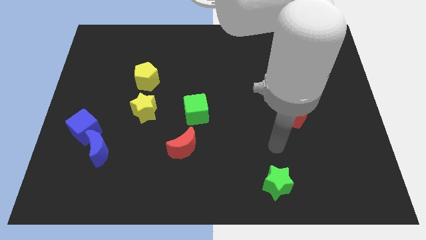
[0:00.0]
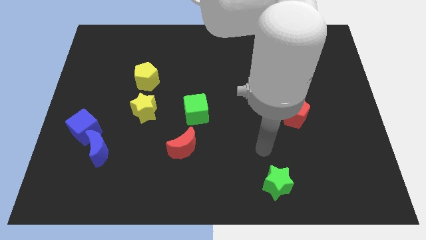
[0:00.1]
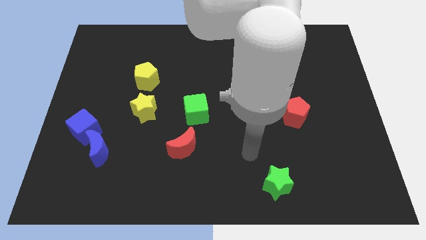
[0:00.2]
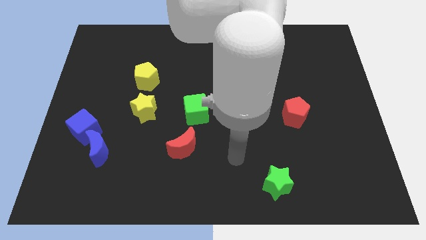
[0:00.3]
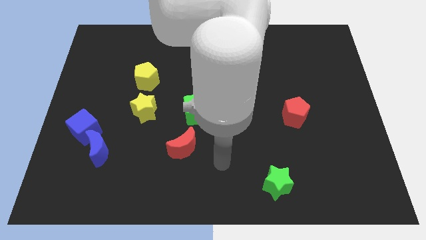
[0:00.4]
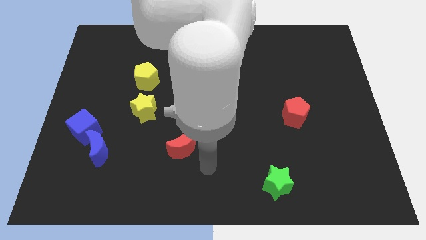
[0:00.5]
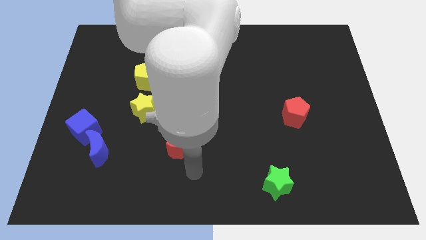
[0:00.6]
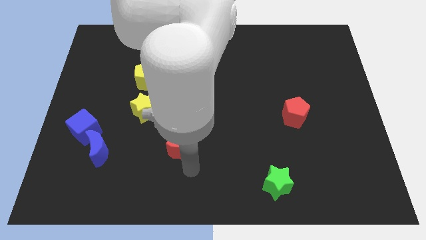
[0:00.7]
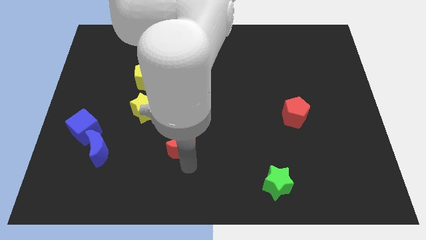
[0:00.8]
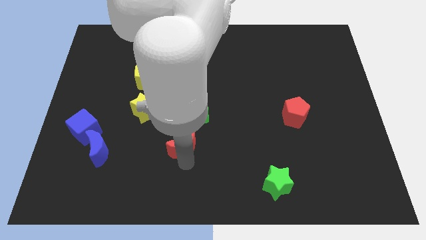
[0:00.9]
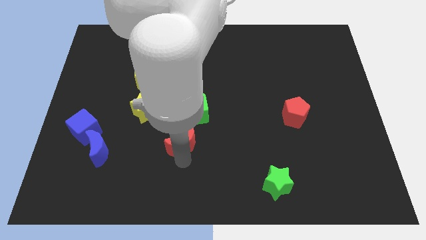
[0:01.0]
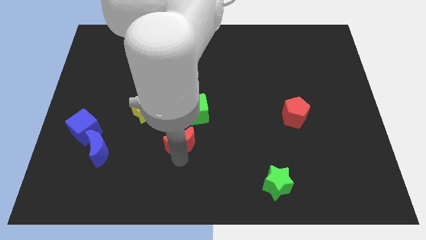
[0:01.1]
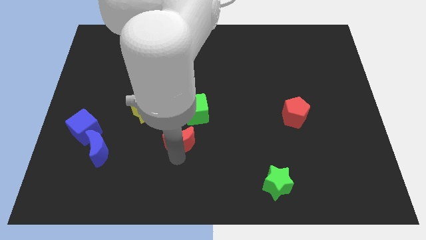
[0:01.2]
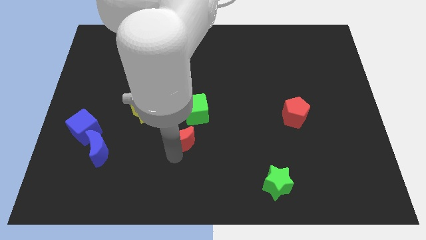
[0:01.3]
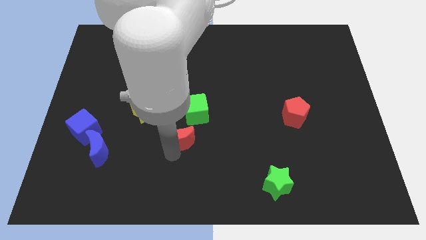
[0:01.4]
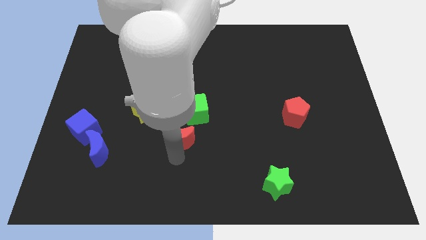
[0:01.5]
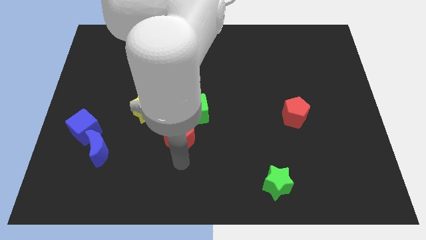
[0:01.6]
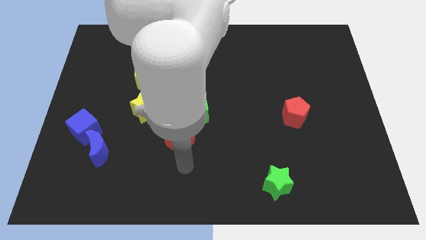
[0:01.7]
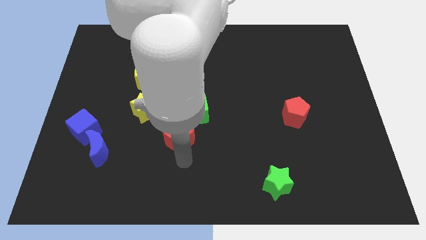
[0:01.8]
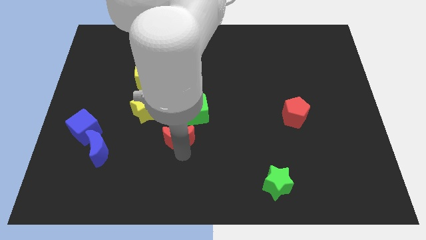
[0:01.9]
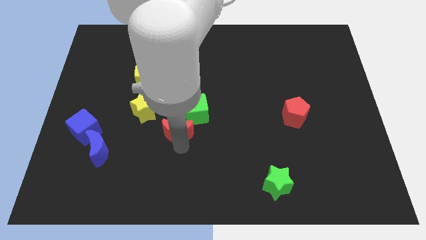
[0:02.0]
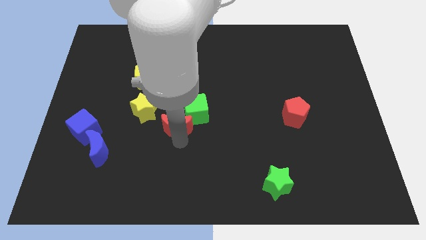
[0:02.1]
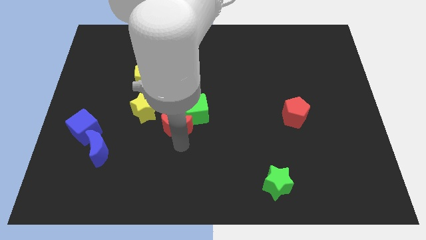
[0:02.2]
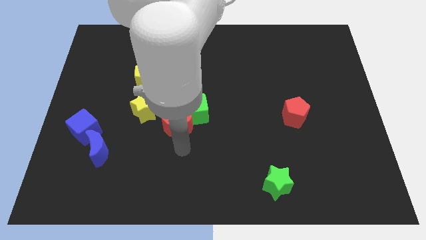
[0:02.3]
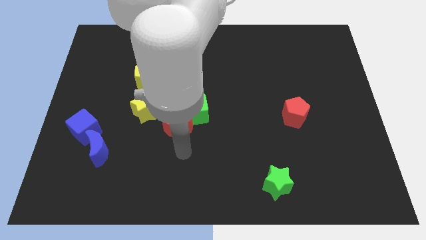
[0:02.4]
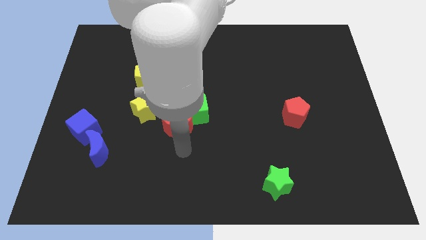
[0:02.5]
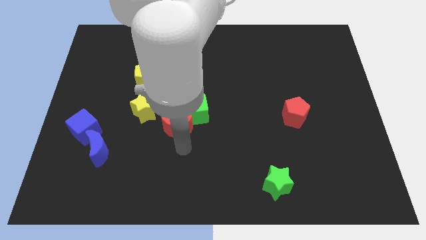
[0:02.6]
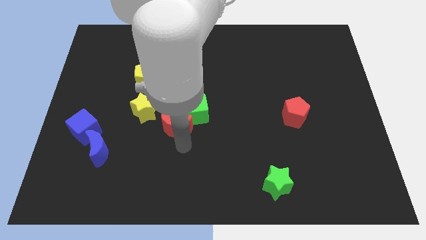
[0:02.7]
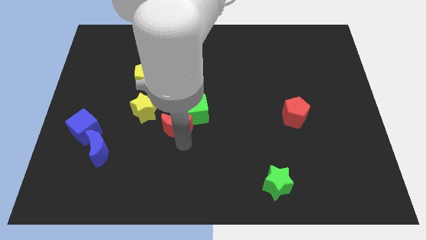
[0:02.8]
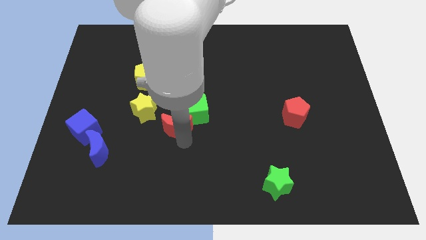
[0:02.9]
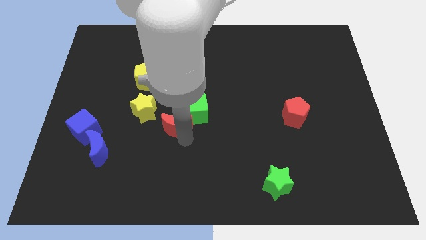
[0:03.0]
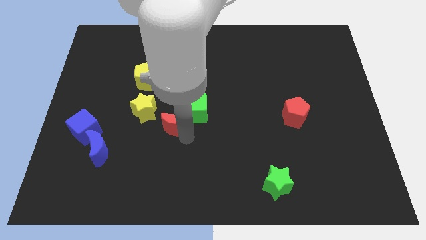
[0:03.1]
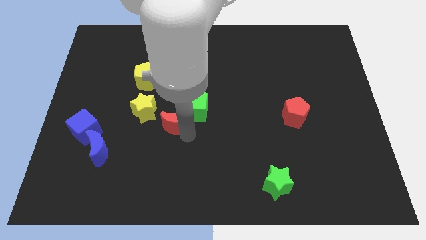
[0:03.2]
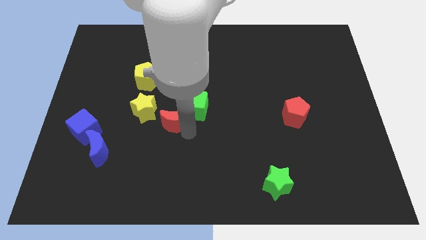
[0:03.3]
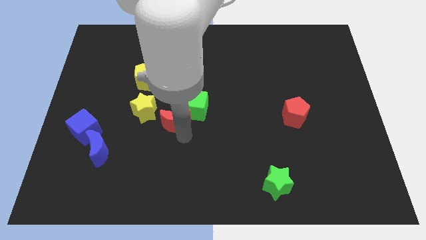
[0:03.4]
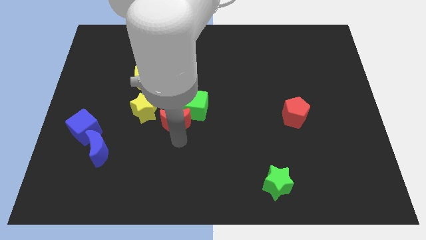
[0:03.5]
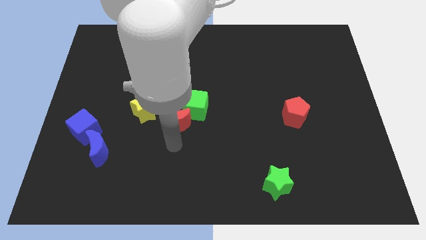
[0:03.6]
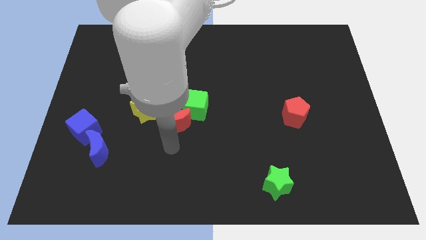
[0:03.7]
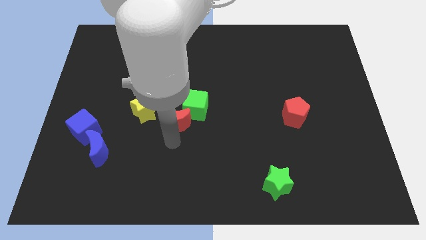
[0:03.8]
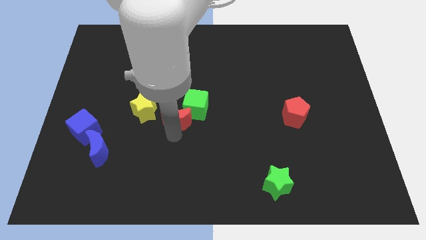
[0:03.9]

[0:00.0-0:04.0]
push the red moon a little bit up

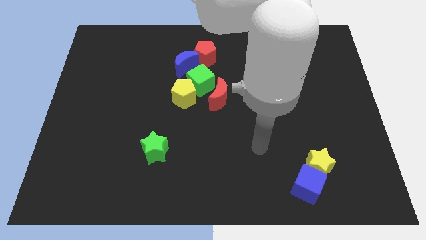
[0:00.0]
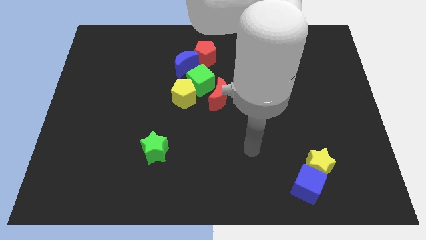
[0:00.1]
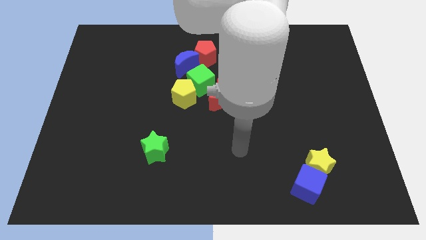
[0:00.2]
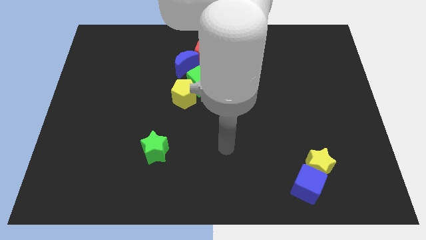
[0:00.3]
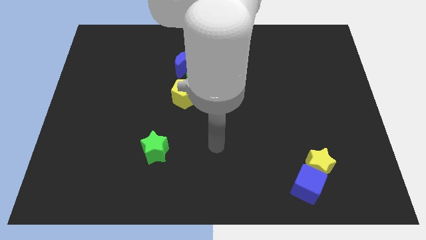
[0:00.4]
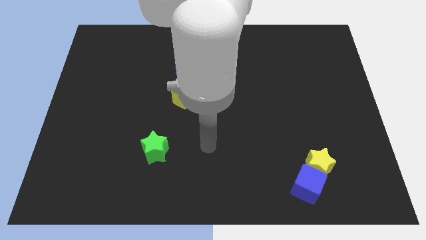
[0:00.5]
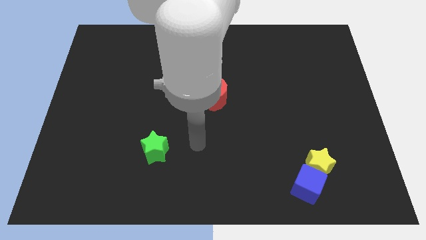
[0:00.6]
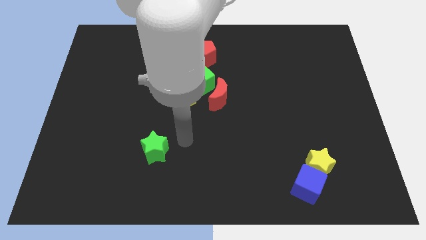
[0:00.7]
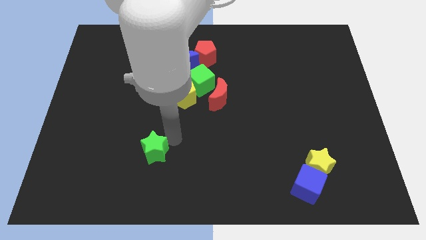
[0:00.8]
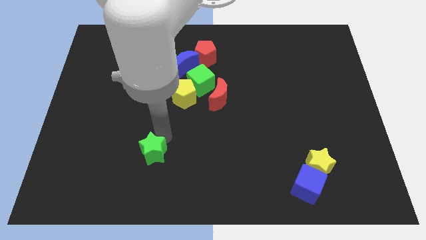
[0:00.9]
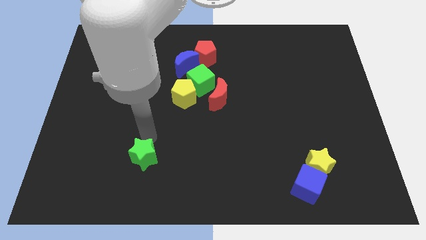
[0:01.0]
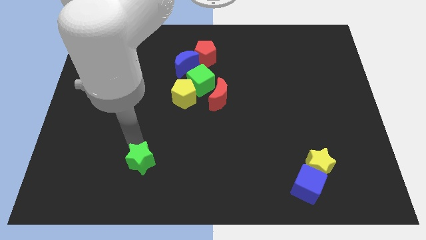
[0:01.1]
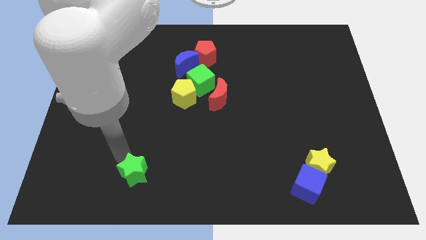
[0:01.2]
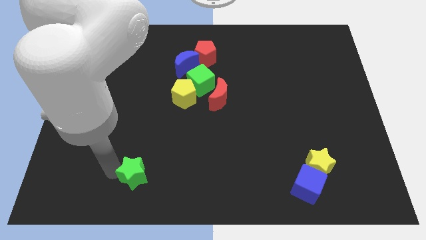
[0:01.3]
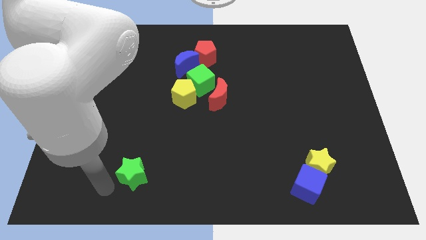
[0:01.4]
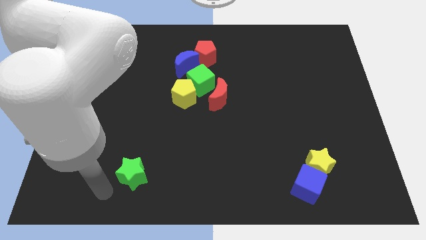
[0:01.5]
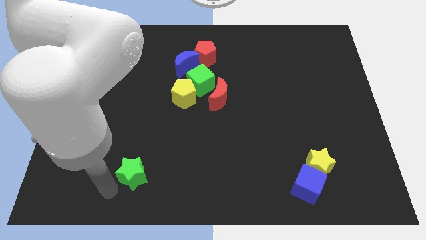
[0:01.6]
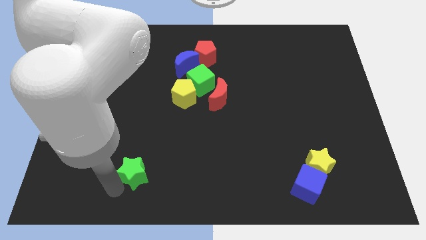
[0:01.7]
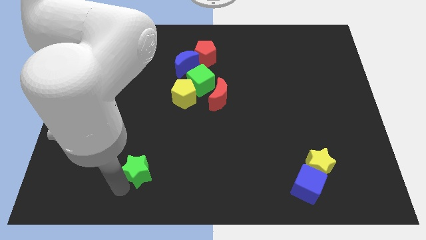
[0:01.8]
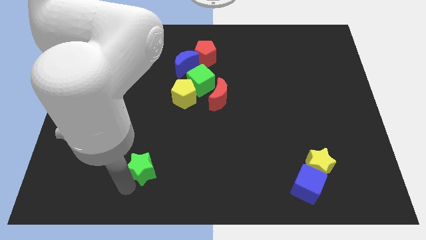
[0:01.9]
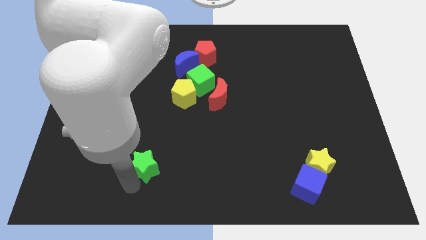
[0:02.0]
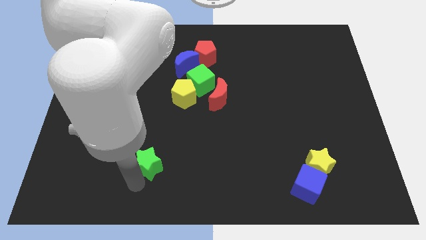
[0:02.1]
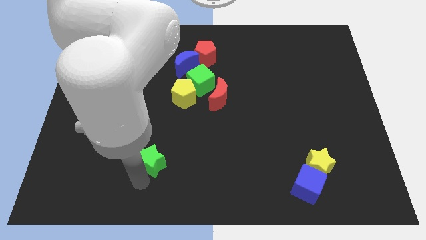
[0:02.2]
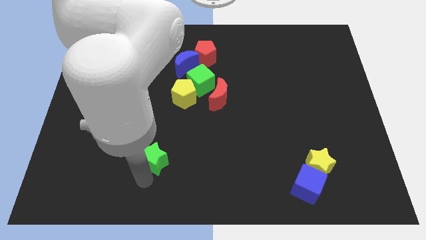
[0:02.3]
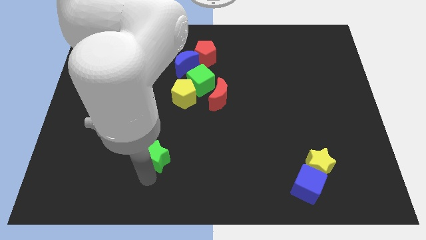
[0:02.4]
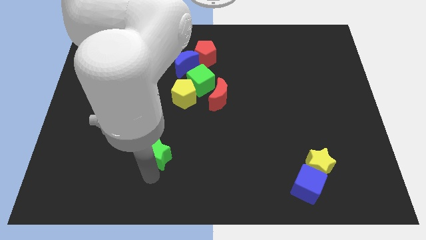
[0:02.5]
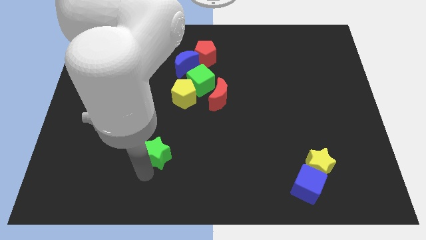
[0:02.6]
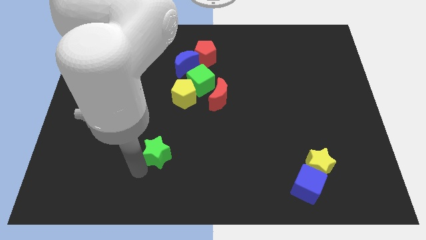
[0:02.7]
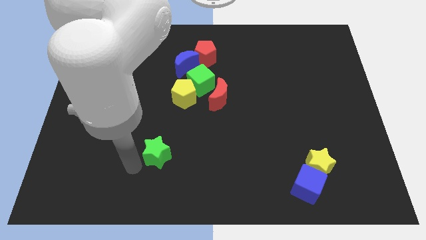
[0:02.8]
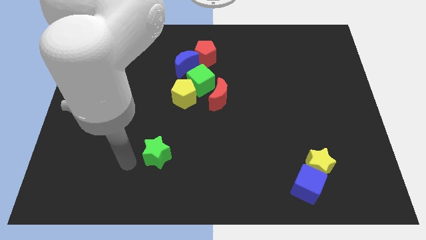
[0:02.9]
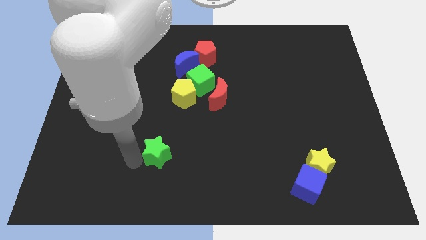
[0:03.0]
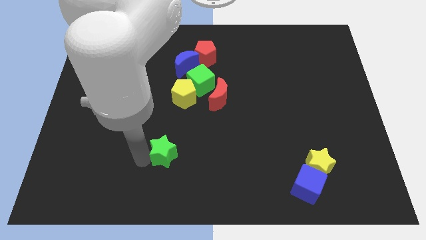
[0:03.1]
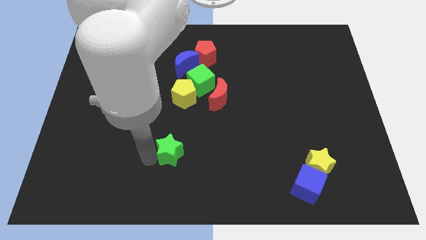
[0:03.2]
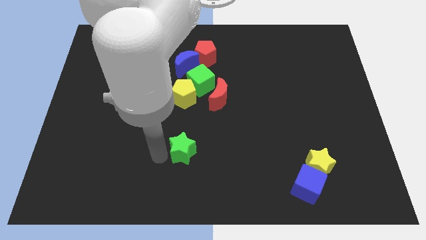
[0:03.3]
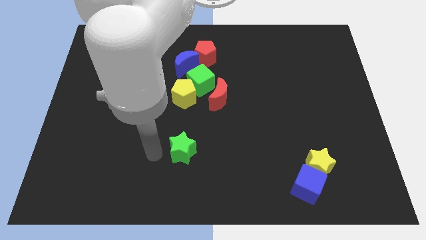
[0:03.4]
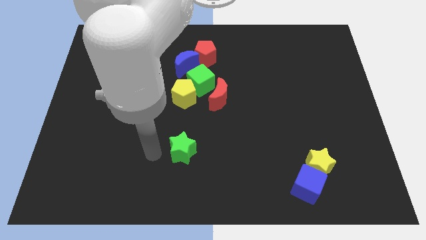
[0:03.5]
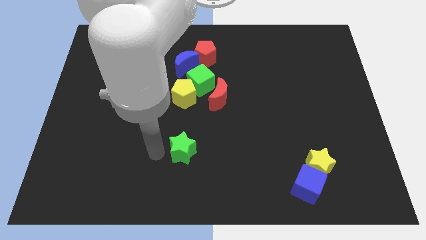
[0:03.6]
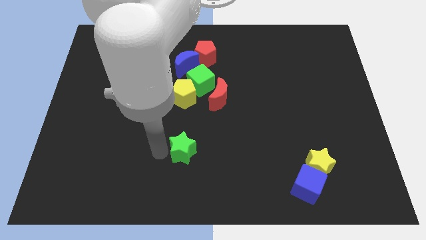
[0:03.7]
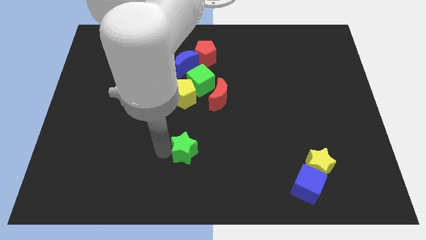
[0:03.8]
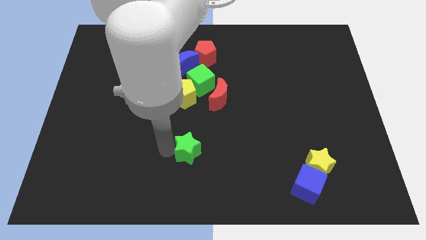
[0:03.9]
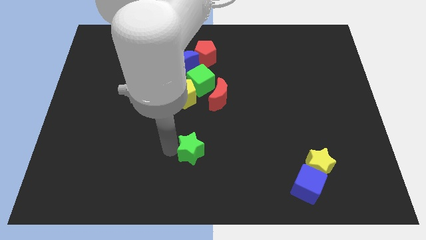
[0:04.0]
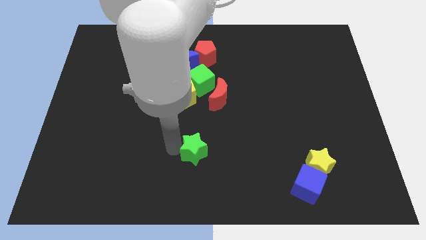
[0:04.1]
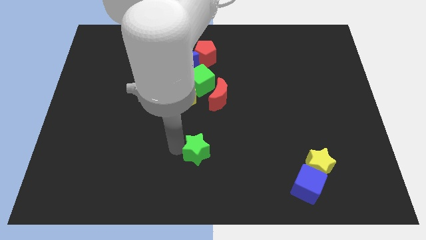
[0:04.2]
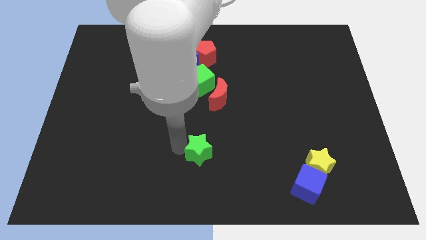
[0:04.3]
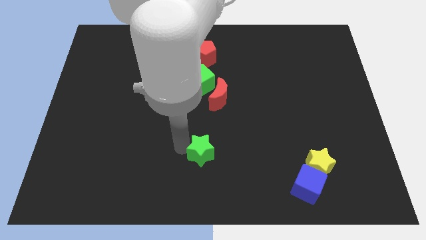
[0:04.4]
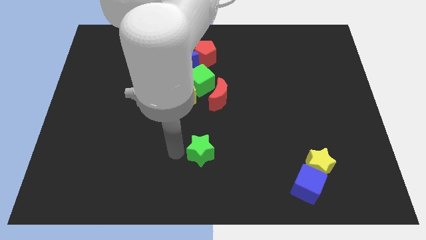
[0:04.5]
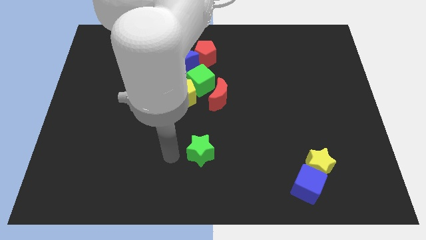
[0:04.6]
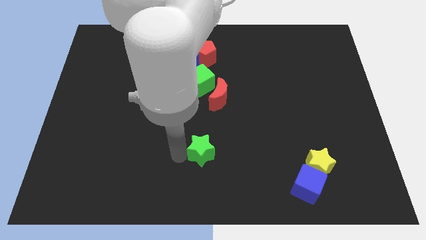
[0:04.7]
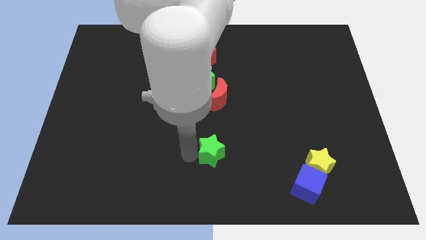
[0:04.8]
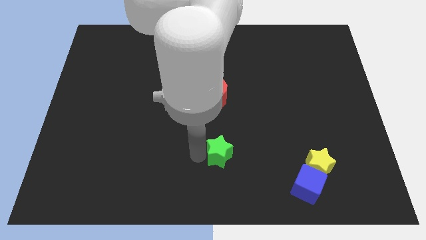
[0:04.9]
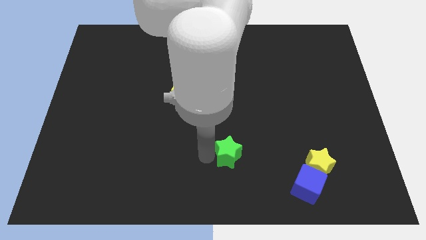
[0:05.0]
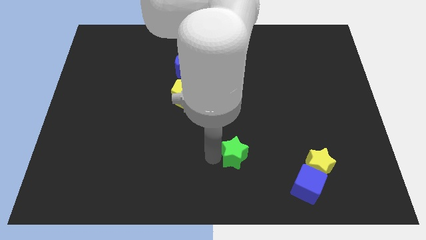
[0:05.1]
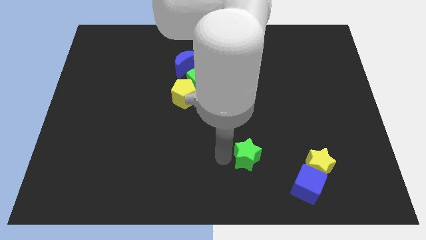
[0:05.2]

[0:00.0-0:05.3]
move the green star to the right
